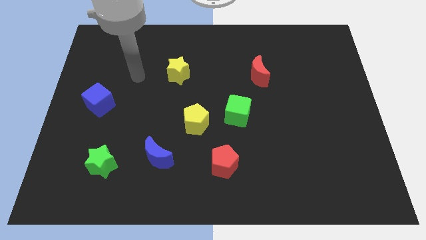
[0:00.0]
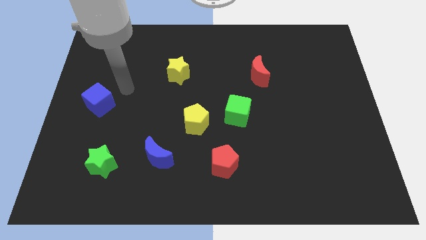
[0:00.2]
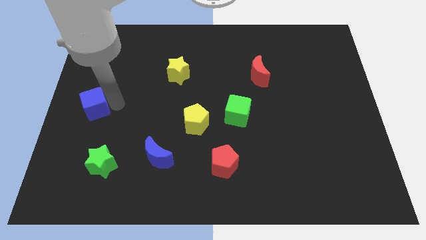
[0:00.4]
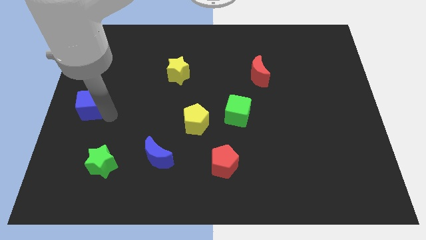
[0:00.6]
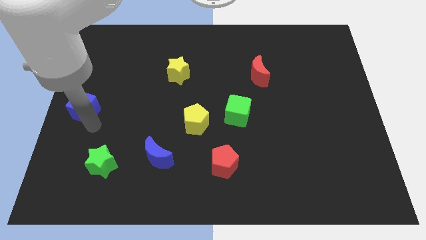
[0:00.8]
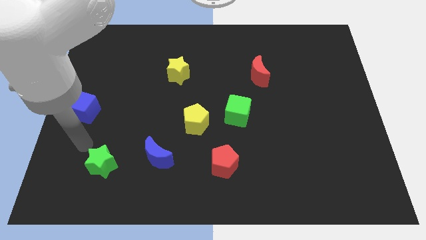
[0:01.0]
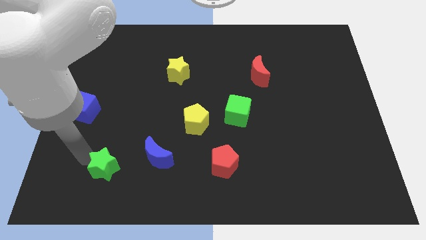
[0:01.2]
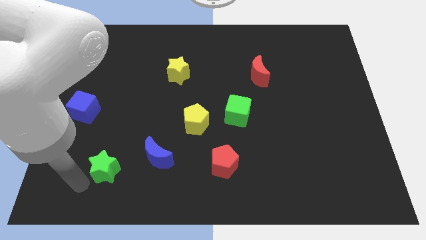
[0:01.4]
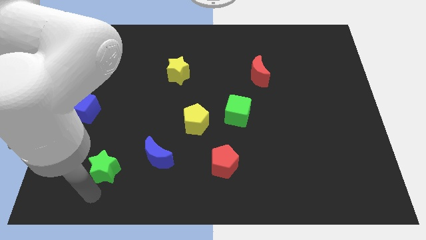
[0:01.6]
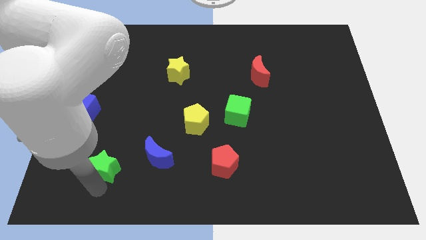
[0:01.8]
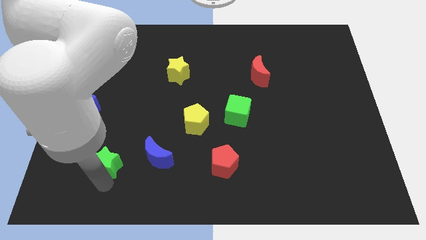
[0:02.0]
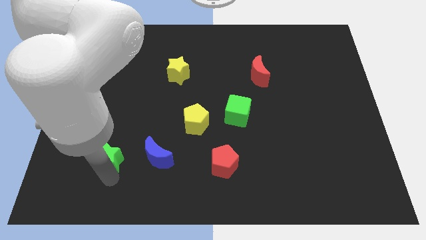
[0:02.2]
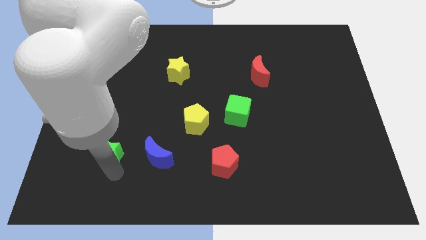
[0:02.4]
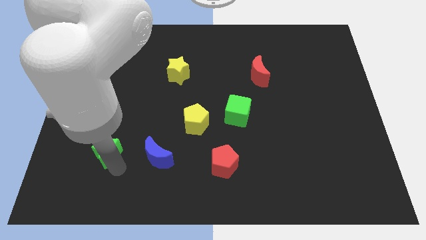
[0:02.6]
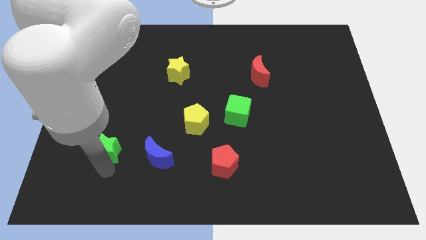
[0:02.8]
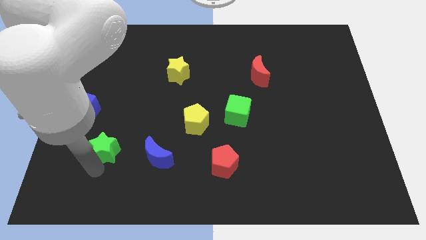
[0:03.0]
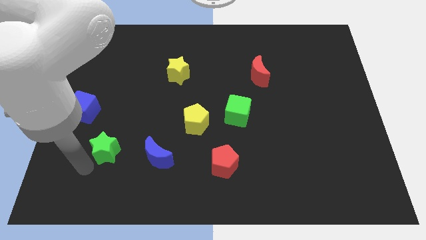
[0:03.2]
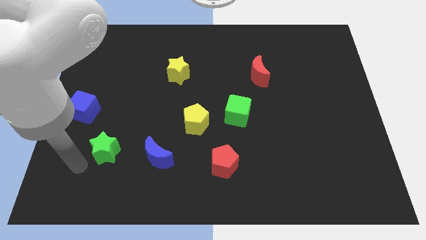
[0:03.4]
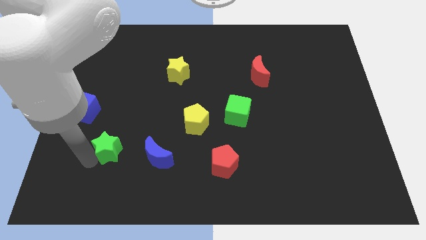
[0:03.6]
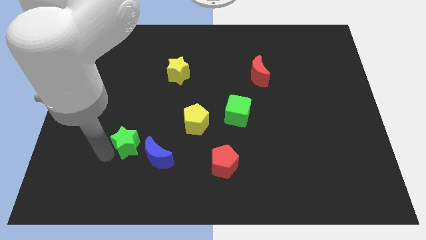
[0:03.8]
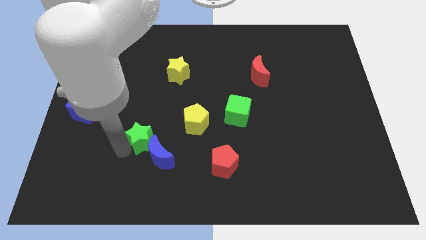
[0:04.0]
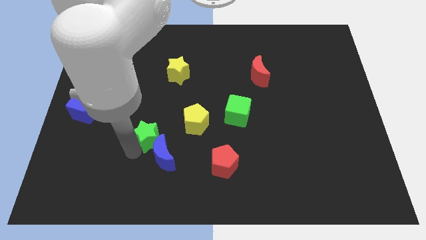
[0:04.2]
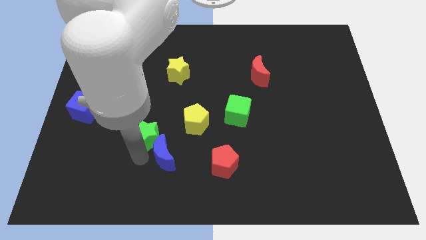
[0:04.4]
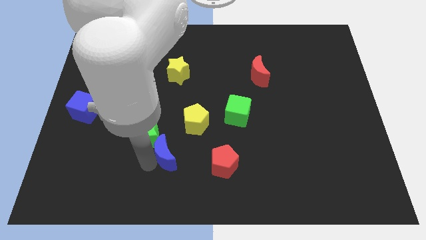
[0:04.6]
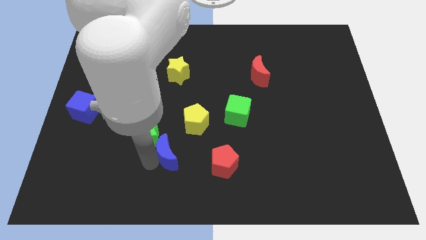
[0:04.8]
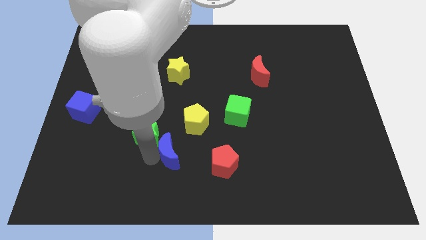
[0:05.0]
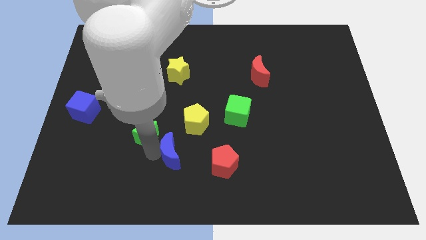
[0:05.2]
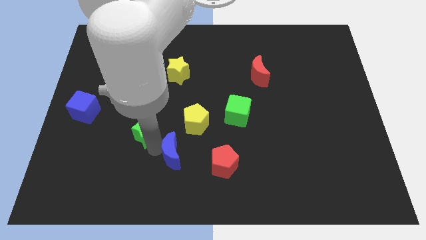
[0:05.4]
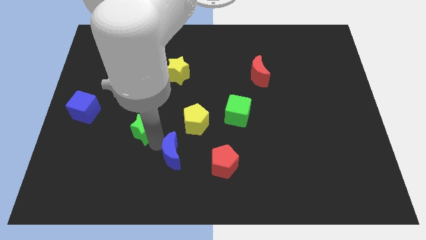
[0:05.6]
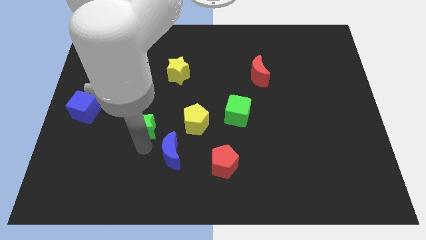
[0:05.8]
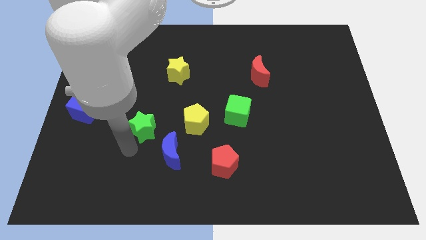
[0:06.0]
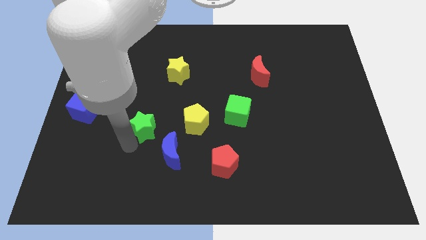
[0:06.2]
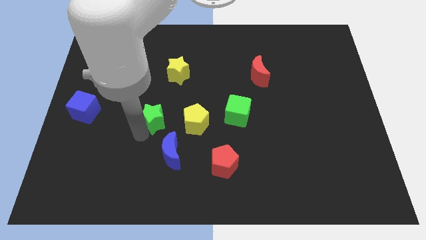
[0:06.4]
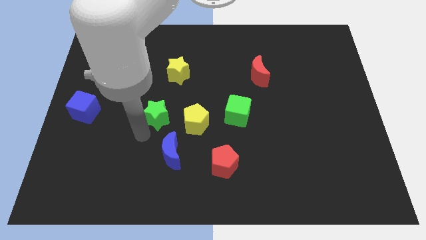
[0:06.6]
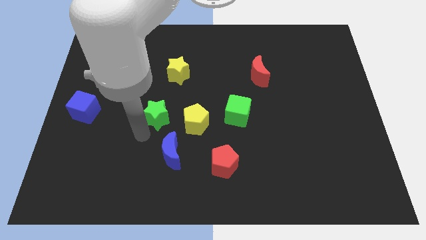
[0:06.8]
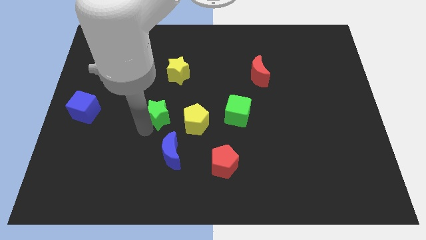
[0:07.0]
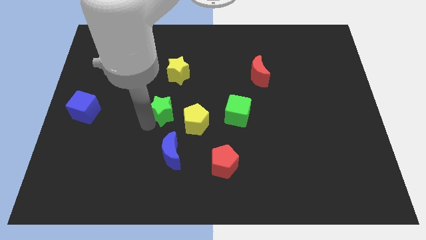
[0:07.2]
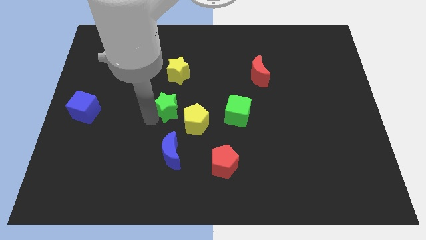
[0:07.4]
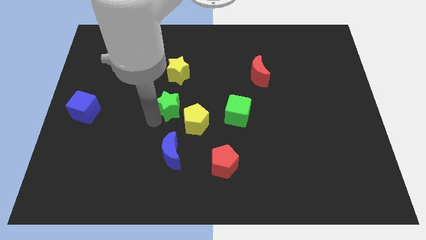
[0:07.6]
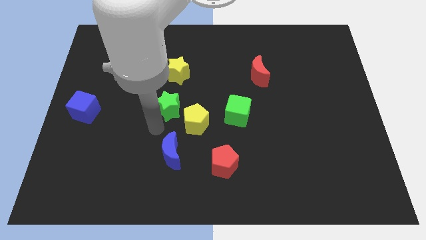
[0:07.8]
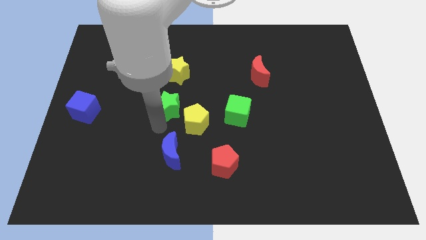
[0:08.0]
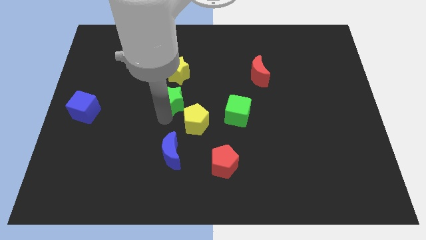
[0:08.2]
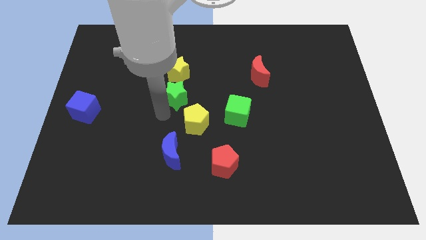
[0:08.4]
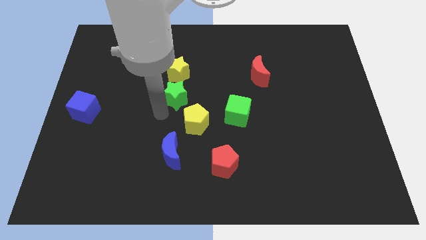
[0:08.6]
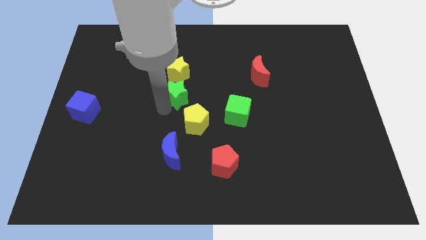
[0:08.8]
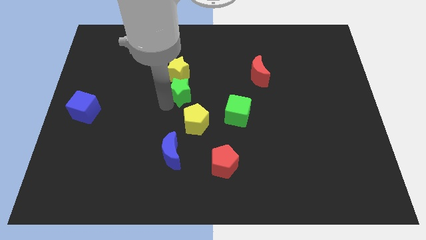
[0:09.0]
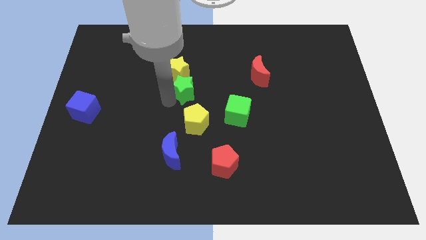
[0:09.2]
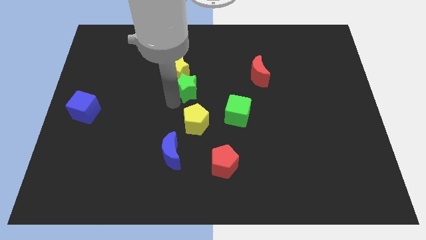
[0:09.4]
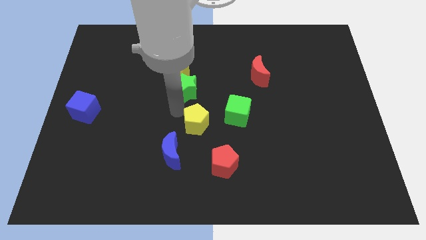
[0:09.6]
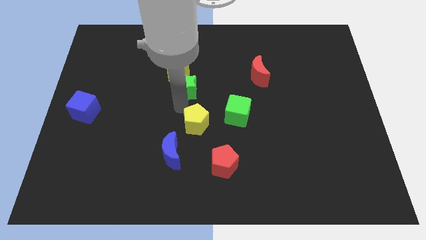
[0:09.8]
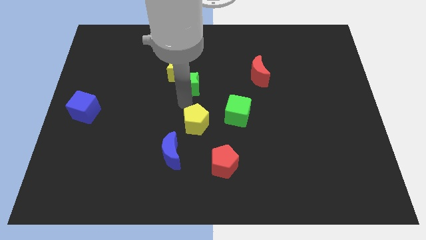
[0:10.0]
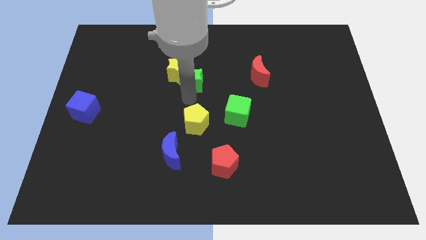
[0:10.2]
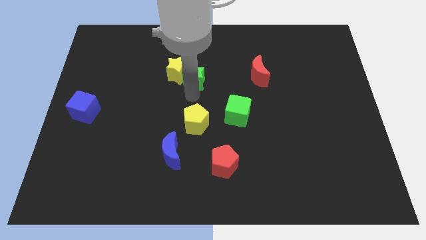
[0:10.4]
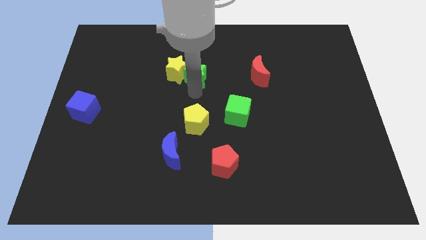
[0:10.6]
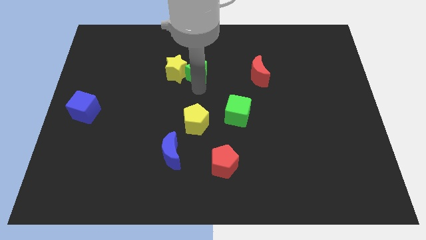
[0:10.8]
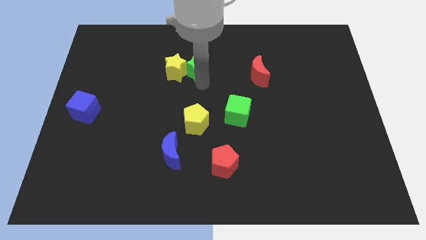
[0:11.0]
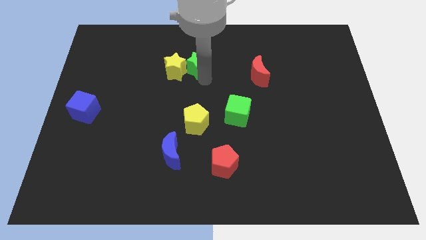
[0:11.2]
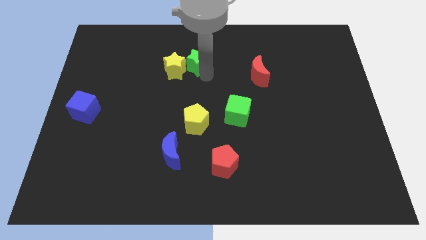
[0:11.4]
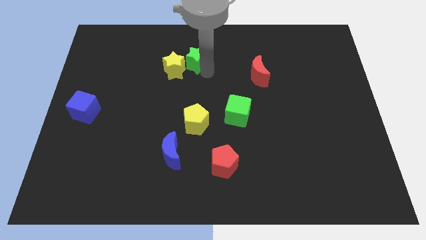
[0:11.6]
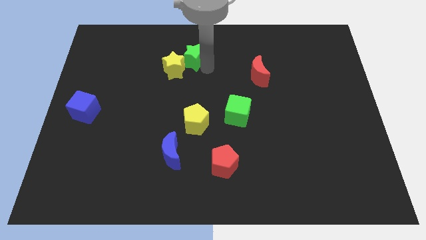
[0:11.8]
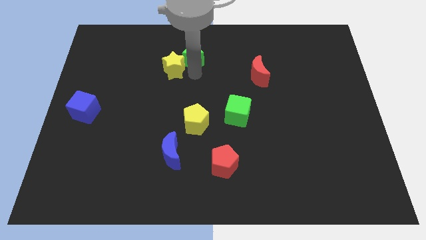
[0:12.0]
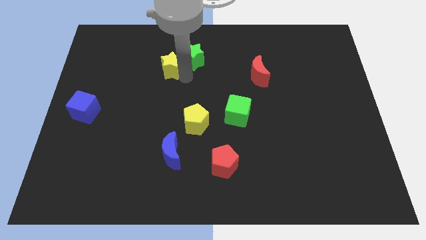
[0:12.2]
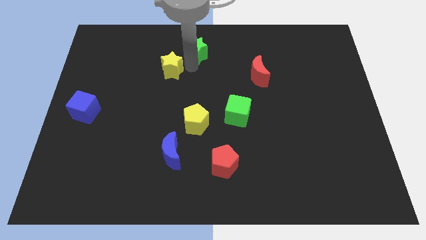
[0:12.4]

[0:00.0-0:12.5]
put the green star to the top
